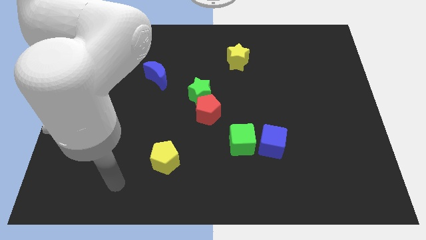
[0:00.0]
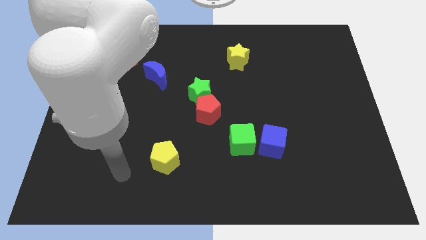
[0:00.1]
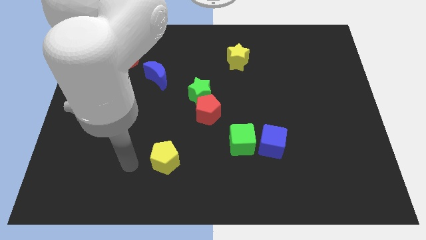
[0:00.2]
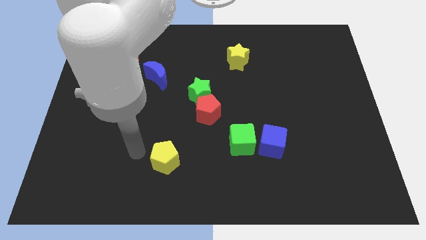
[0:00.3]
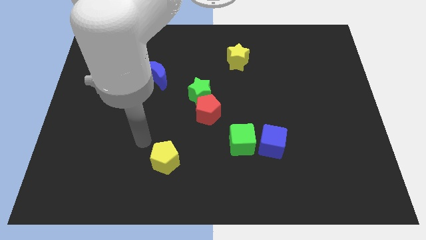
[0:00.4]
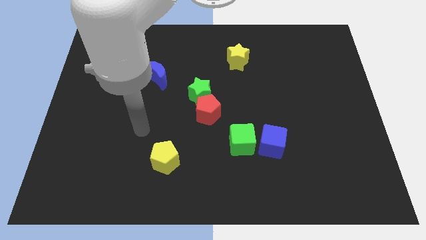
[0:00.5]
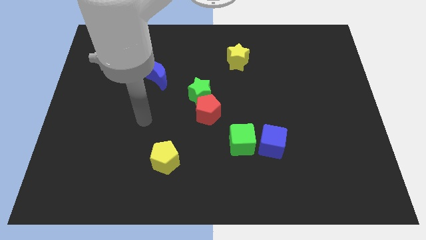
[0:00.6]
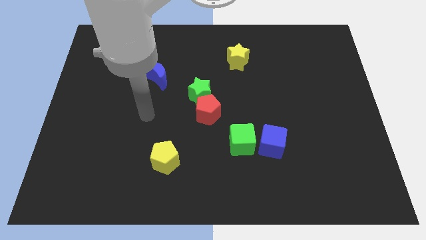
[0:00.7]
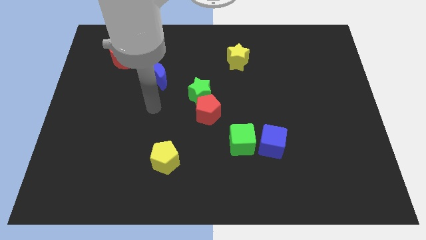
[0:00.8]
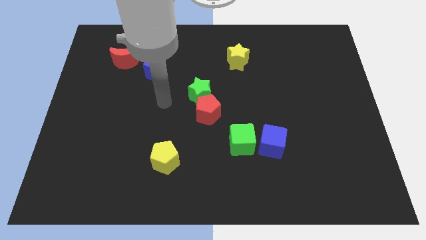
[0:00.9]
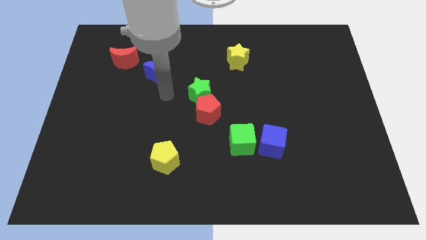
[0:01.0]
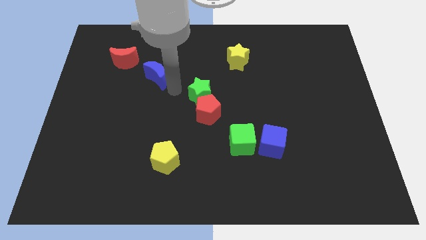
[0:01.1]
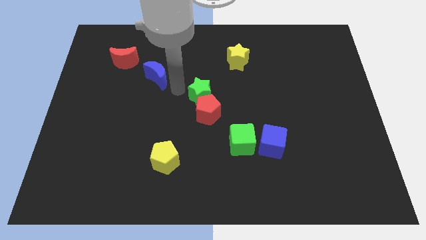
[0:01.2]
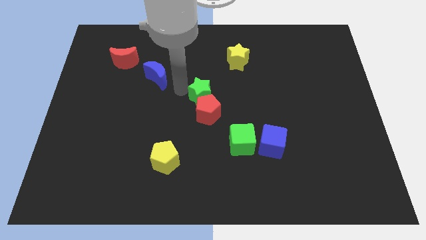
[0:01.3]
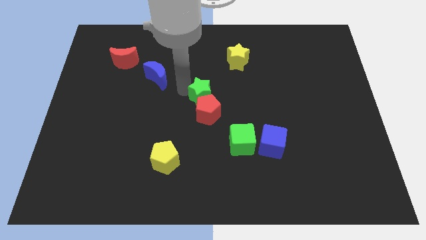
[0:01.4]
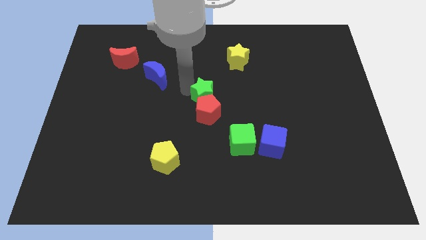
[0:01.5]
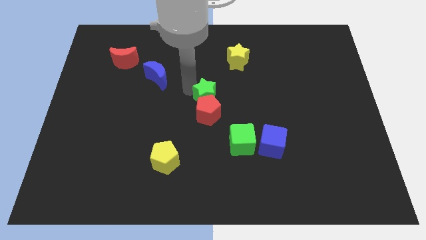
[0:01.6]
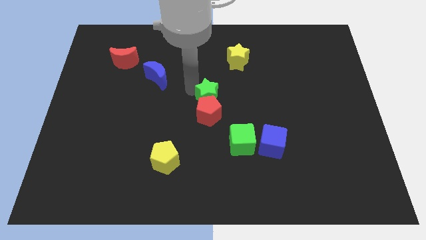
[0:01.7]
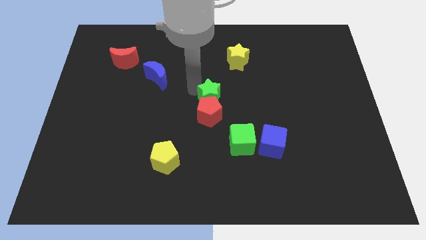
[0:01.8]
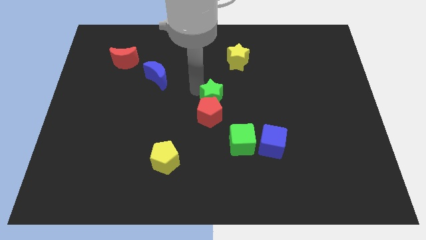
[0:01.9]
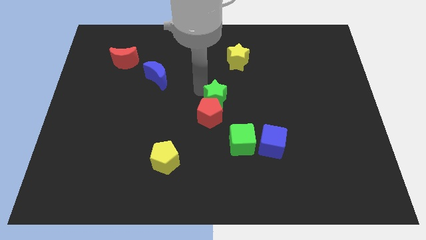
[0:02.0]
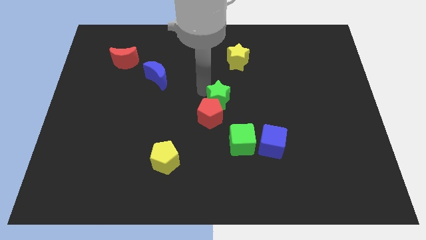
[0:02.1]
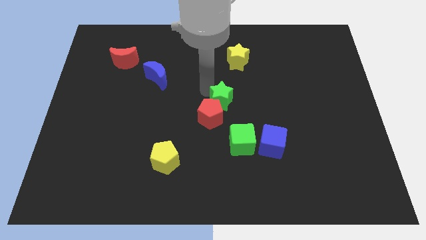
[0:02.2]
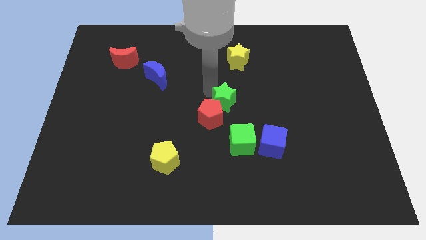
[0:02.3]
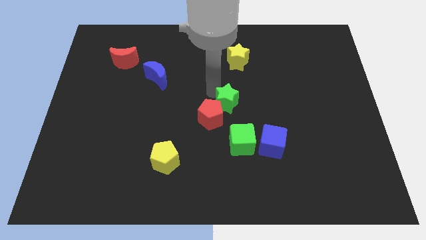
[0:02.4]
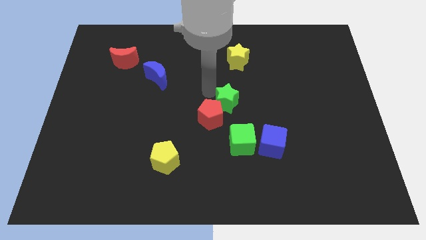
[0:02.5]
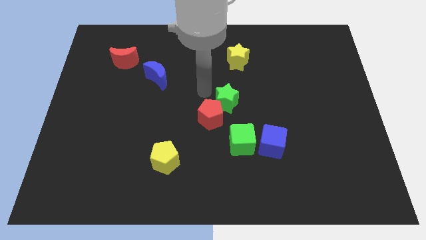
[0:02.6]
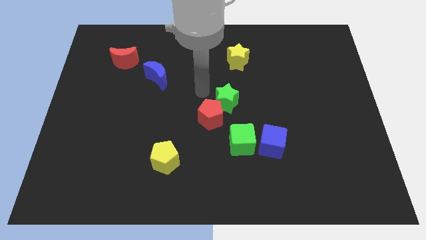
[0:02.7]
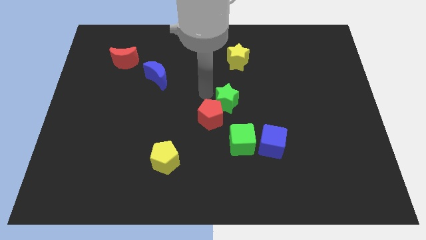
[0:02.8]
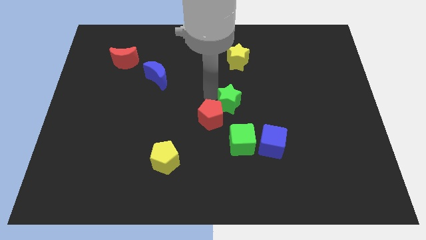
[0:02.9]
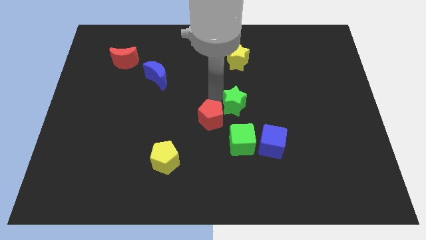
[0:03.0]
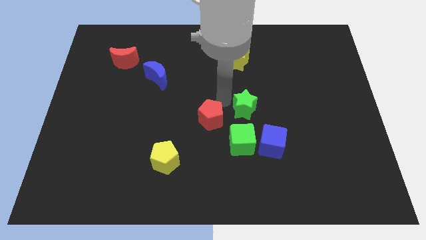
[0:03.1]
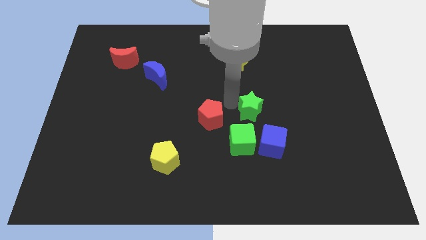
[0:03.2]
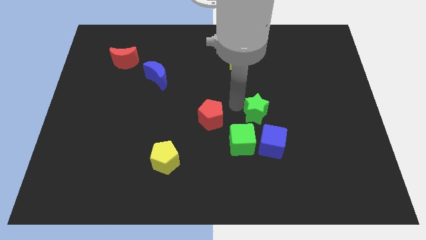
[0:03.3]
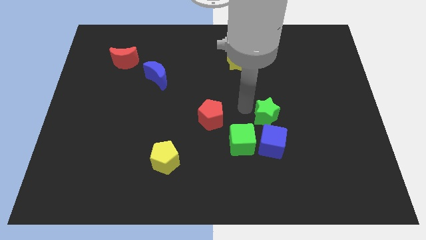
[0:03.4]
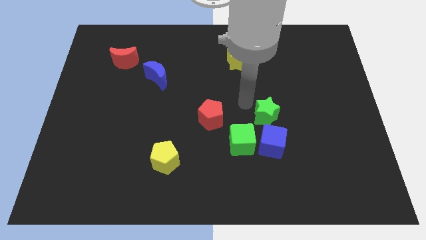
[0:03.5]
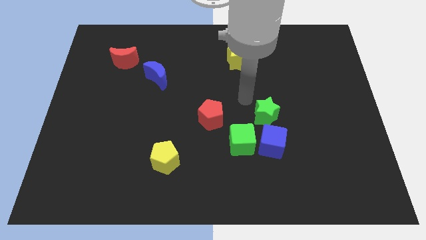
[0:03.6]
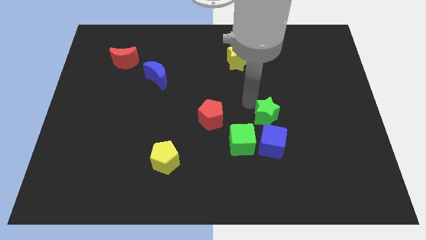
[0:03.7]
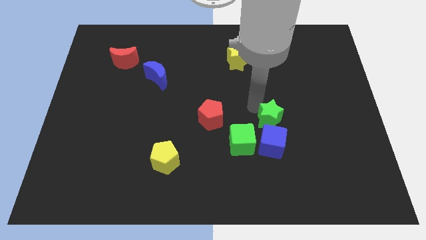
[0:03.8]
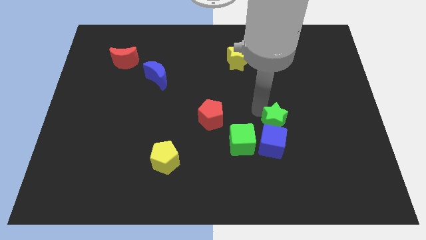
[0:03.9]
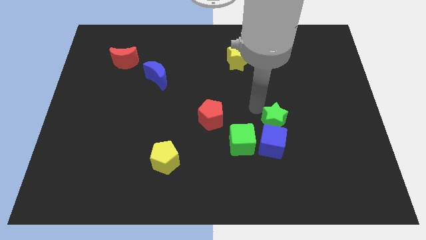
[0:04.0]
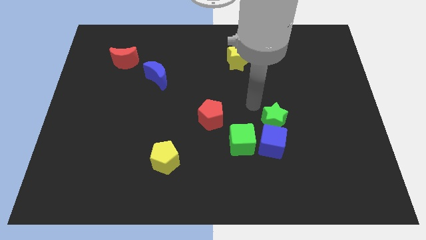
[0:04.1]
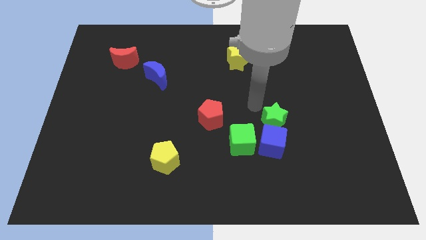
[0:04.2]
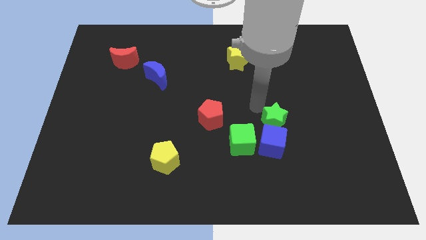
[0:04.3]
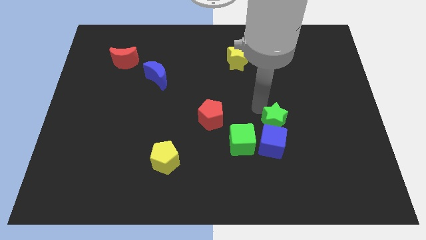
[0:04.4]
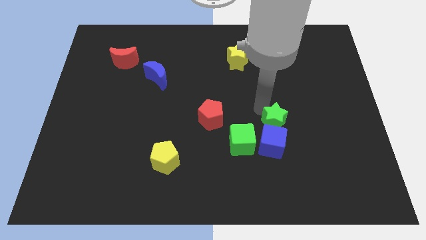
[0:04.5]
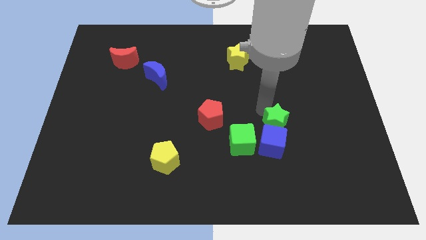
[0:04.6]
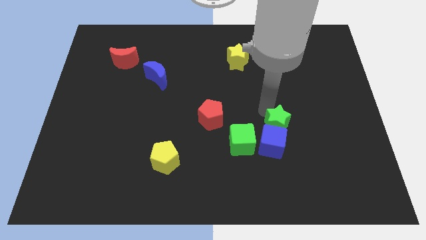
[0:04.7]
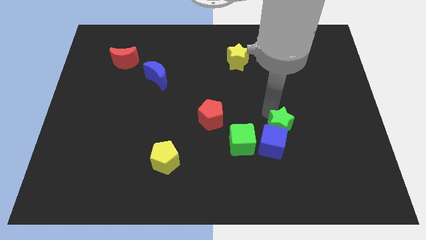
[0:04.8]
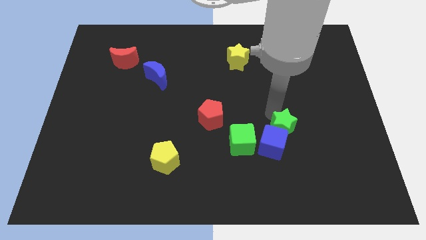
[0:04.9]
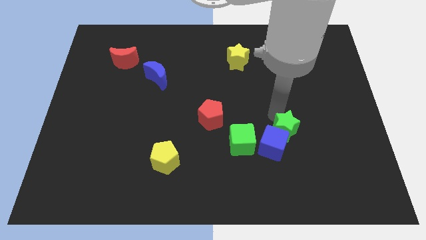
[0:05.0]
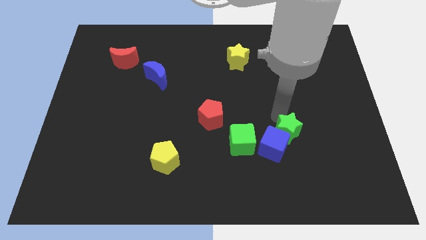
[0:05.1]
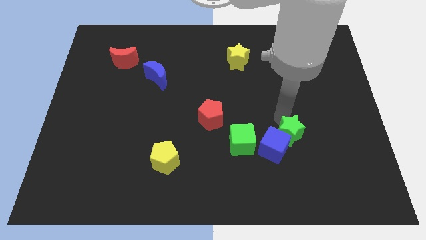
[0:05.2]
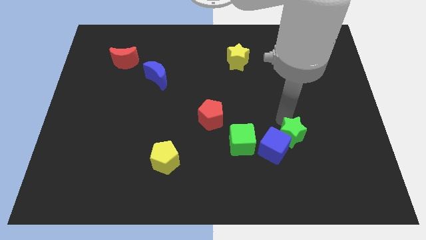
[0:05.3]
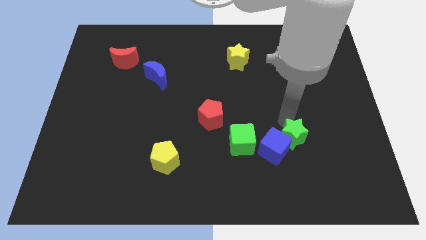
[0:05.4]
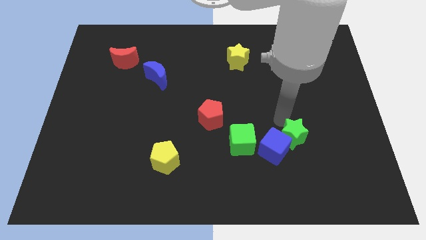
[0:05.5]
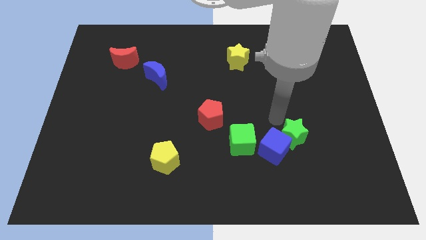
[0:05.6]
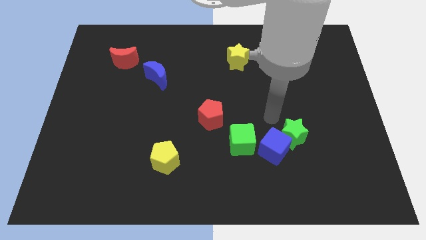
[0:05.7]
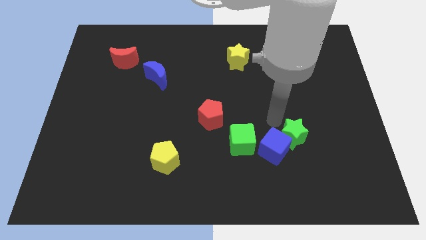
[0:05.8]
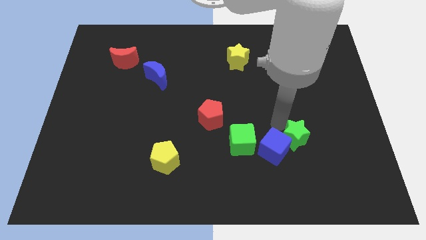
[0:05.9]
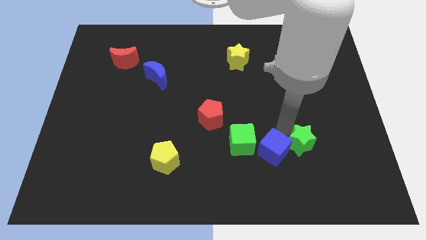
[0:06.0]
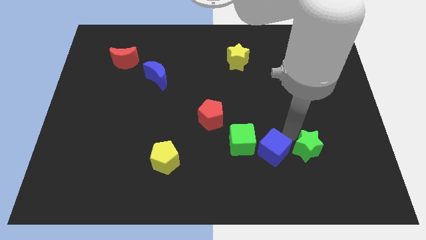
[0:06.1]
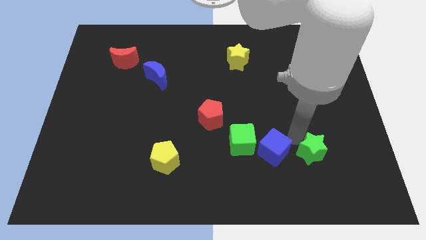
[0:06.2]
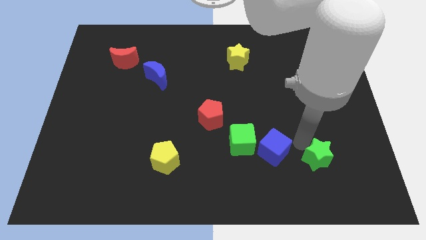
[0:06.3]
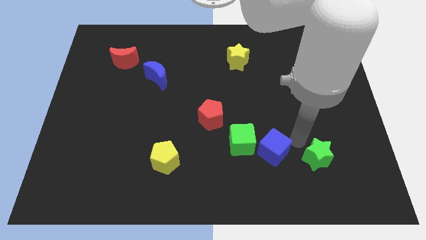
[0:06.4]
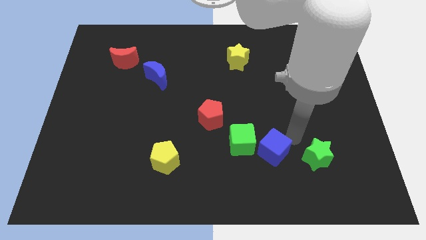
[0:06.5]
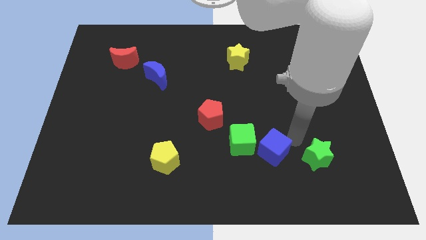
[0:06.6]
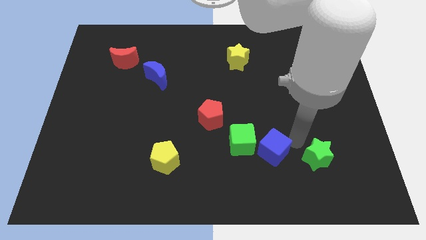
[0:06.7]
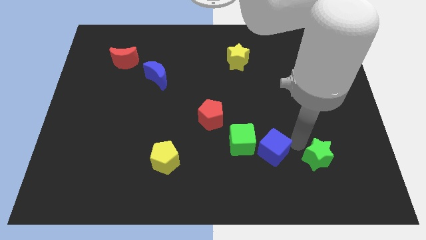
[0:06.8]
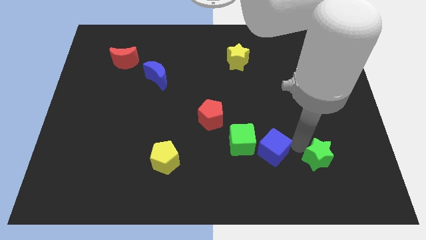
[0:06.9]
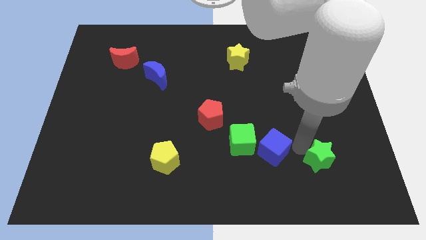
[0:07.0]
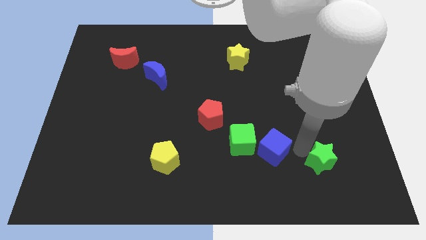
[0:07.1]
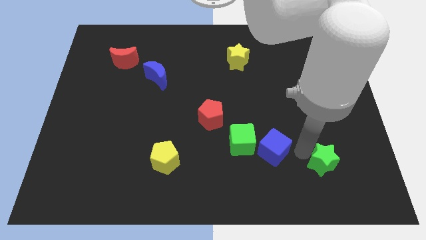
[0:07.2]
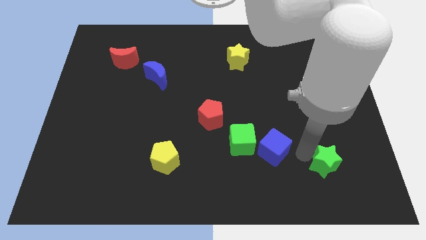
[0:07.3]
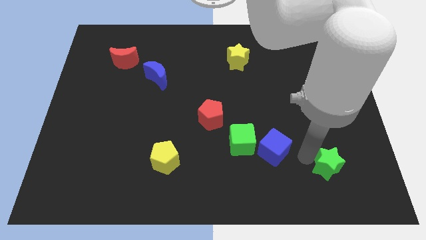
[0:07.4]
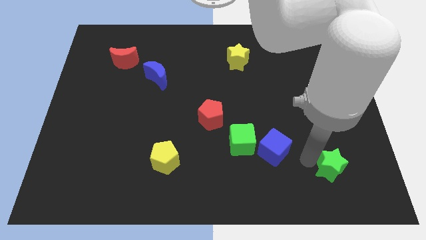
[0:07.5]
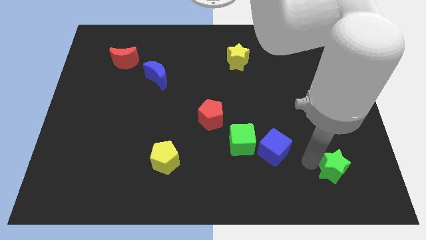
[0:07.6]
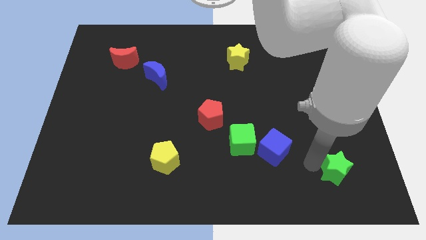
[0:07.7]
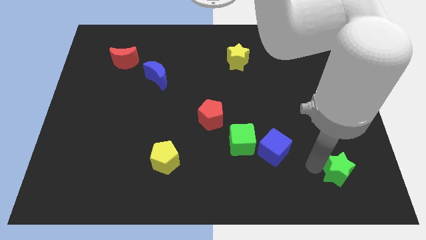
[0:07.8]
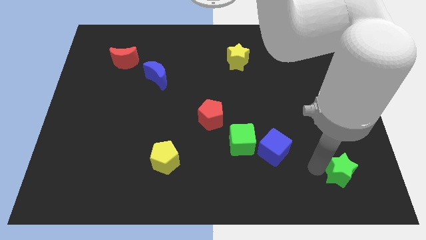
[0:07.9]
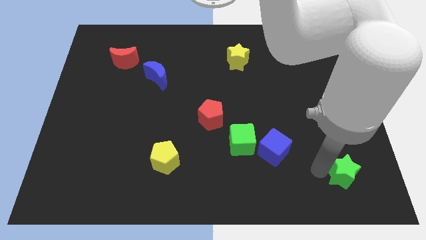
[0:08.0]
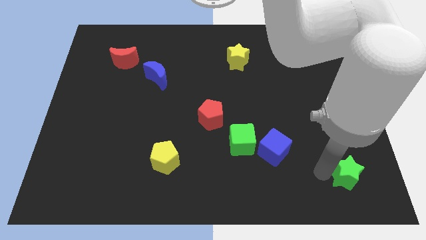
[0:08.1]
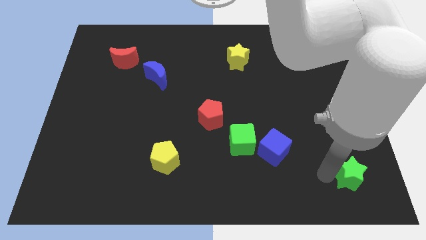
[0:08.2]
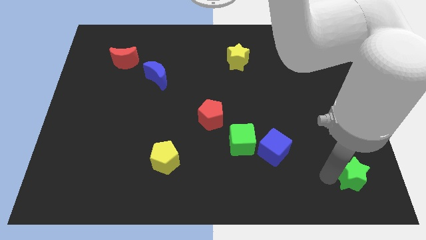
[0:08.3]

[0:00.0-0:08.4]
push the green star to the bottom right corner
